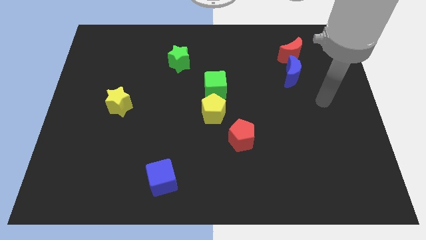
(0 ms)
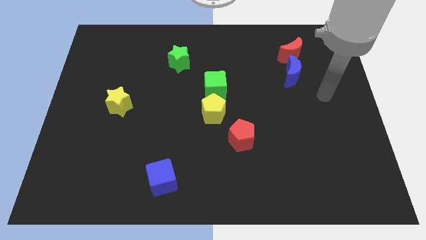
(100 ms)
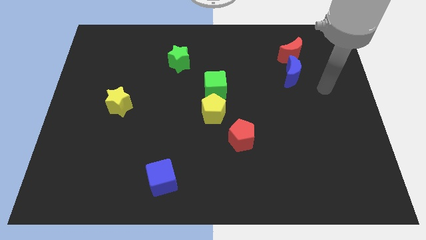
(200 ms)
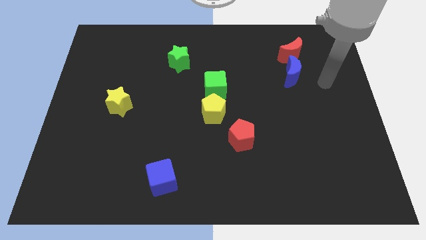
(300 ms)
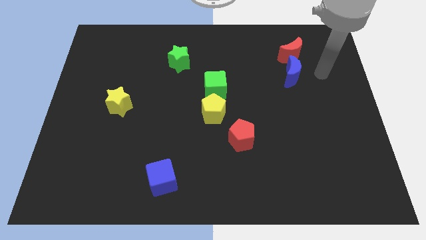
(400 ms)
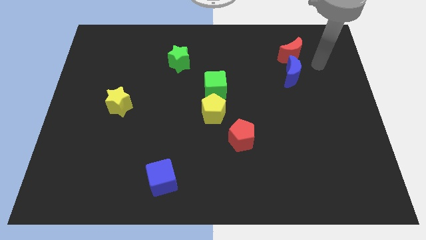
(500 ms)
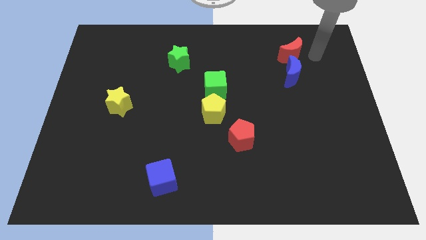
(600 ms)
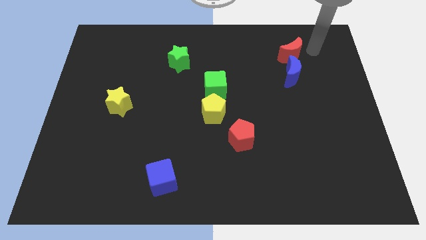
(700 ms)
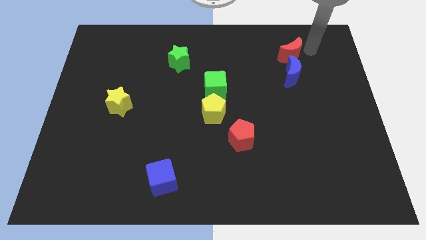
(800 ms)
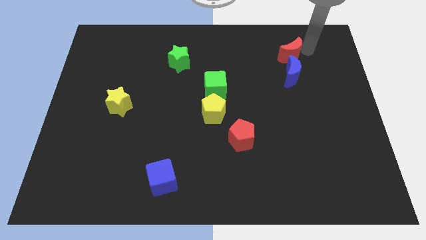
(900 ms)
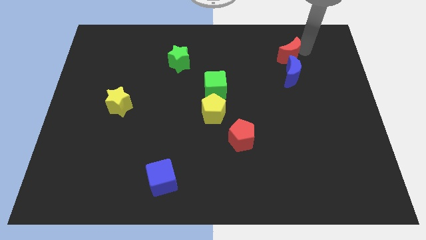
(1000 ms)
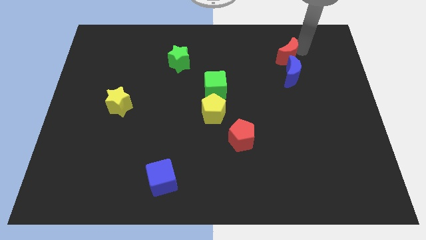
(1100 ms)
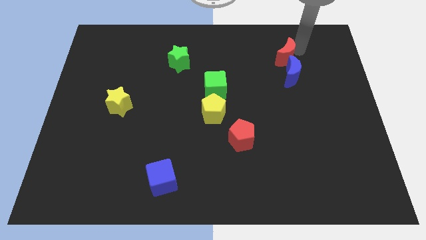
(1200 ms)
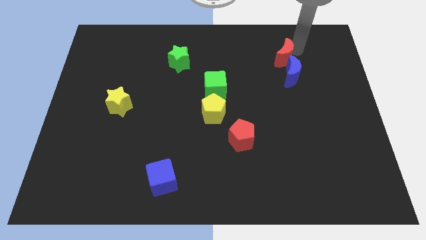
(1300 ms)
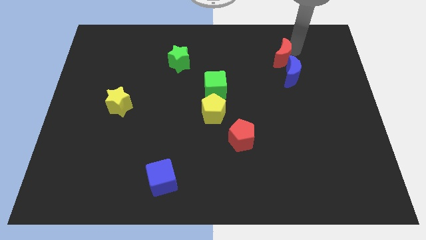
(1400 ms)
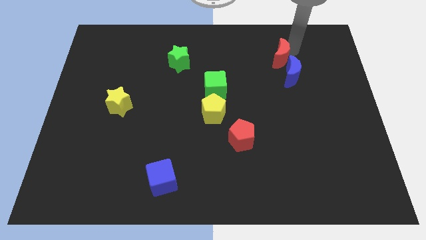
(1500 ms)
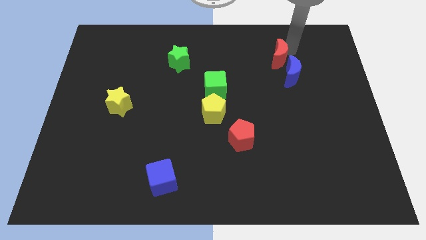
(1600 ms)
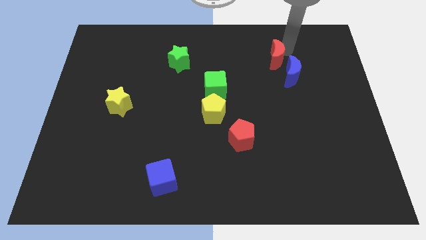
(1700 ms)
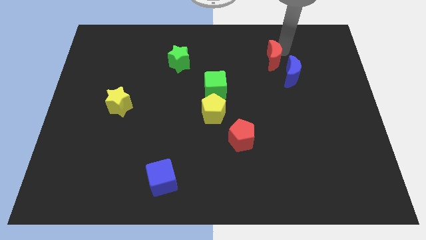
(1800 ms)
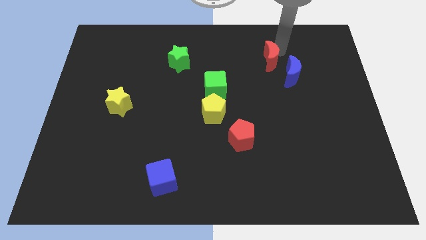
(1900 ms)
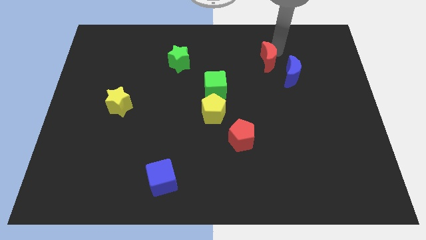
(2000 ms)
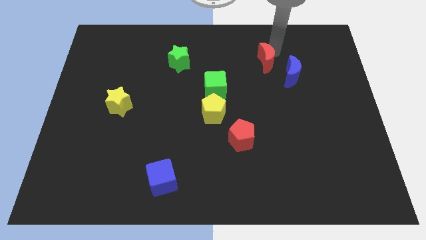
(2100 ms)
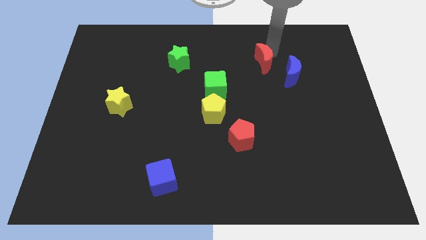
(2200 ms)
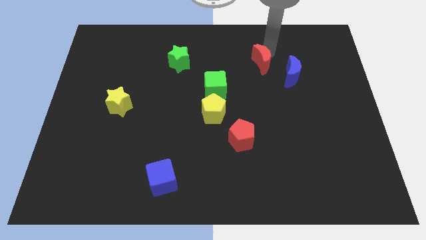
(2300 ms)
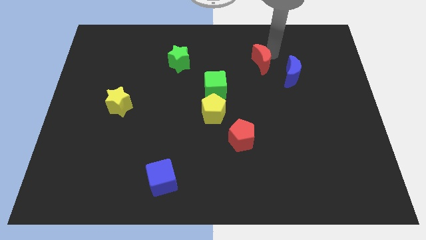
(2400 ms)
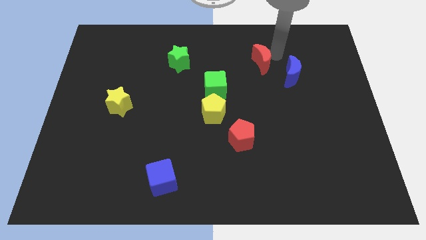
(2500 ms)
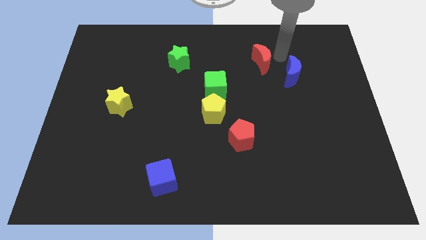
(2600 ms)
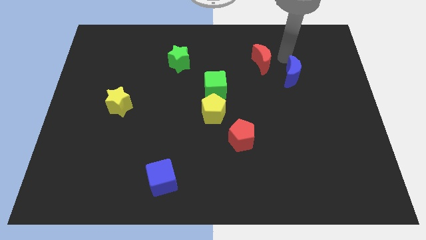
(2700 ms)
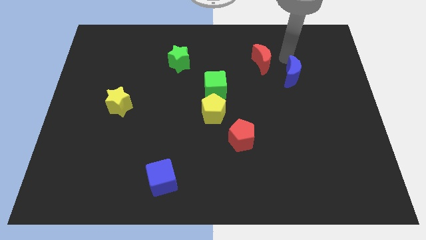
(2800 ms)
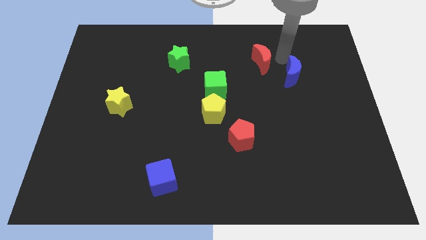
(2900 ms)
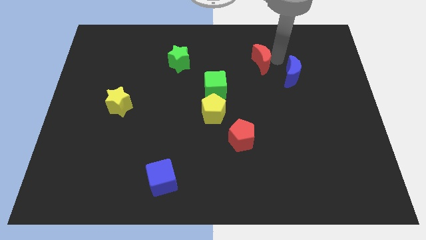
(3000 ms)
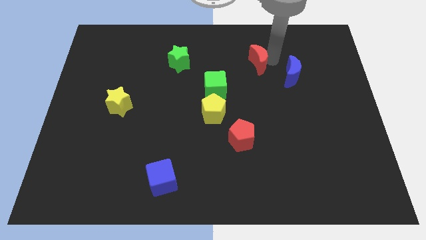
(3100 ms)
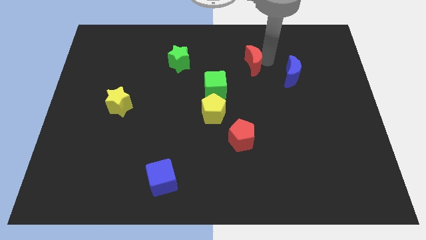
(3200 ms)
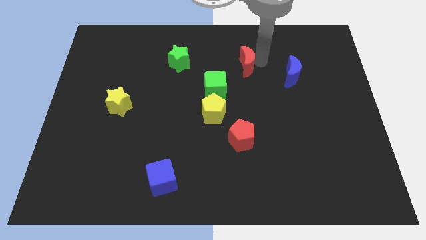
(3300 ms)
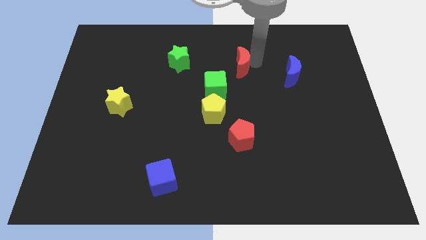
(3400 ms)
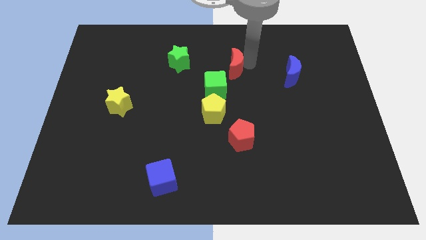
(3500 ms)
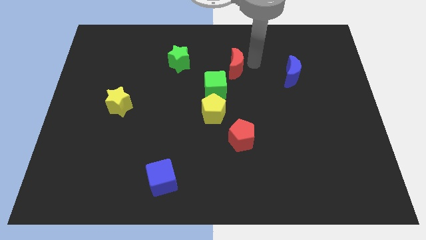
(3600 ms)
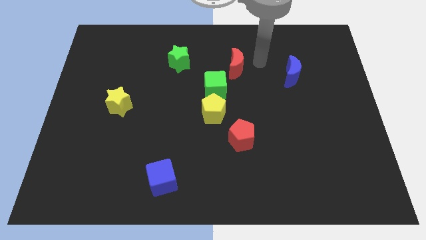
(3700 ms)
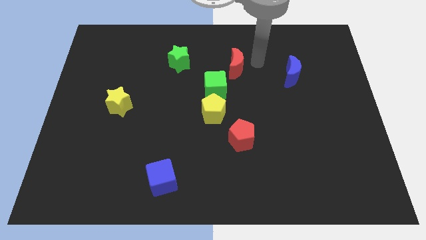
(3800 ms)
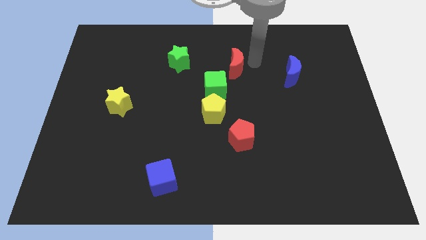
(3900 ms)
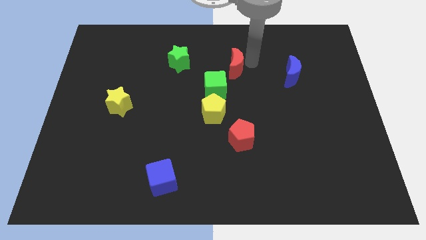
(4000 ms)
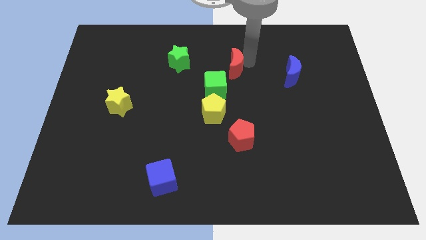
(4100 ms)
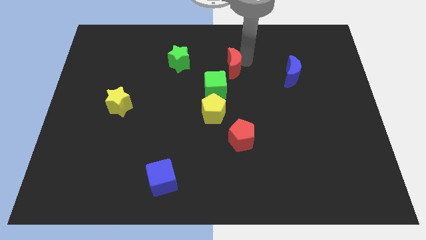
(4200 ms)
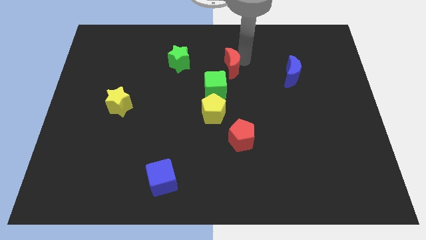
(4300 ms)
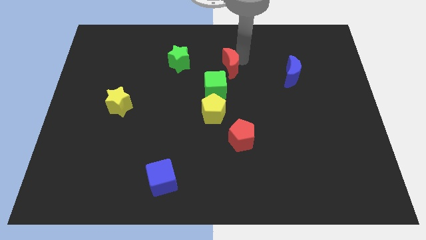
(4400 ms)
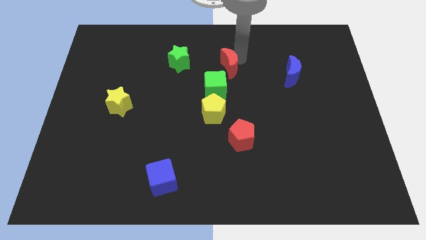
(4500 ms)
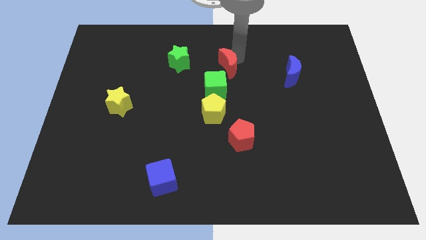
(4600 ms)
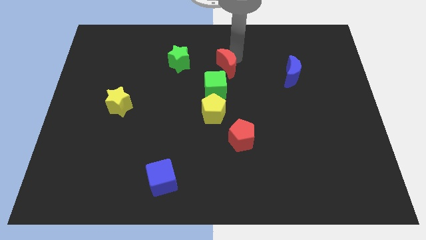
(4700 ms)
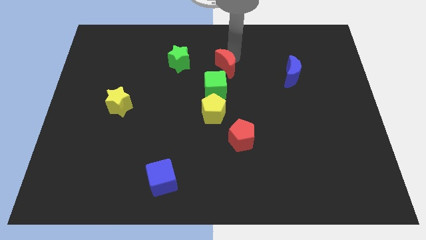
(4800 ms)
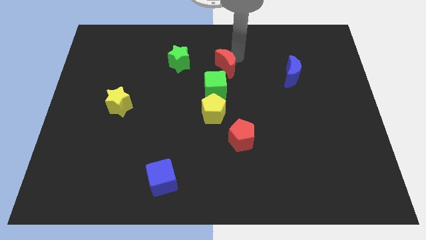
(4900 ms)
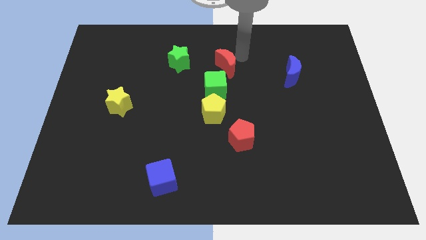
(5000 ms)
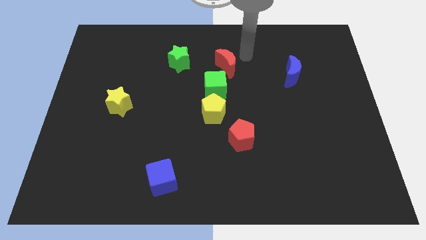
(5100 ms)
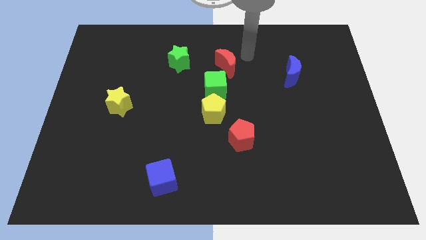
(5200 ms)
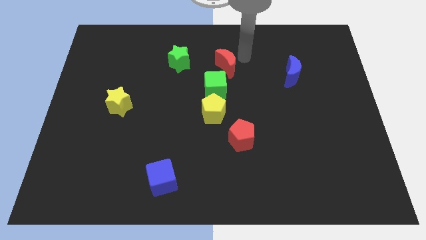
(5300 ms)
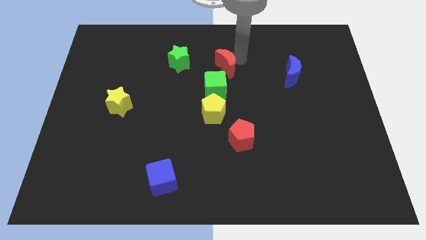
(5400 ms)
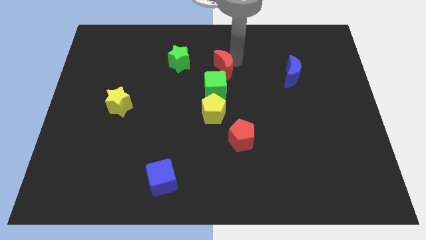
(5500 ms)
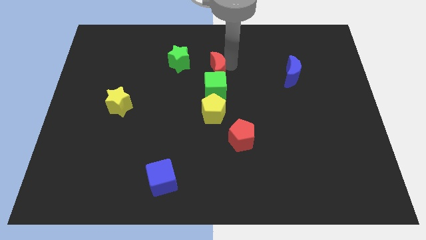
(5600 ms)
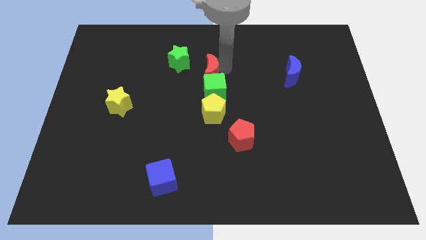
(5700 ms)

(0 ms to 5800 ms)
put the red moon to the top left side of the green cube

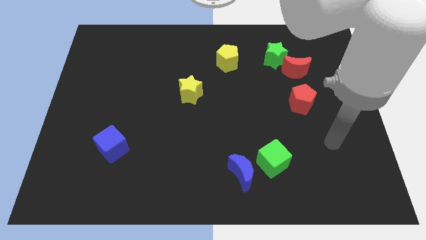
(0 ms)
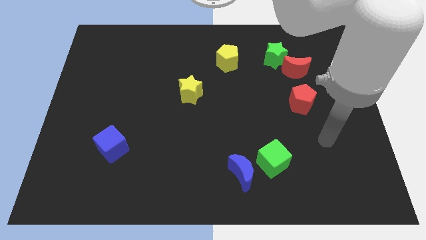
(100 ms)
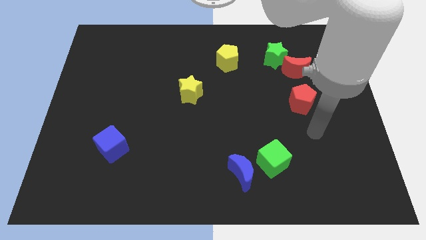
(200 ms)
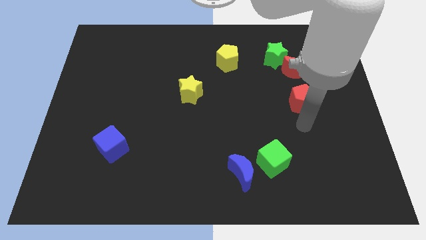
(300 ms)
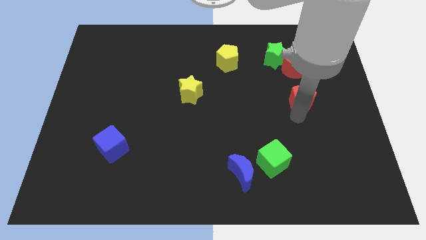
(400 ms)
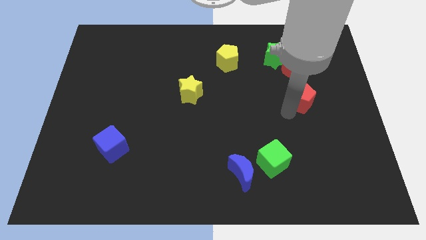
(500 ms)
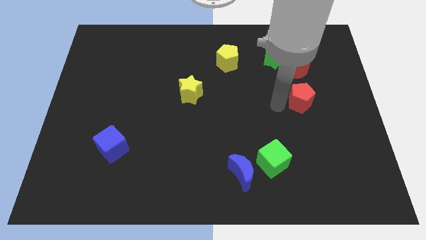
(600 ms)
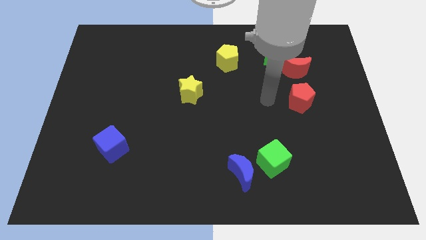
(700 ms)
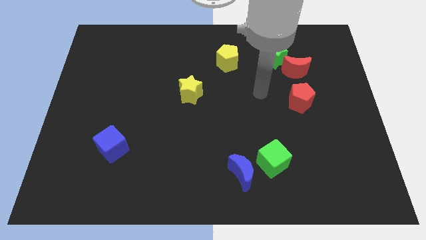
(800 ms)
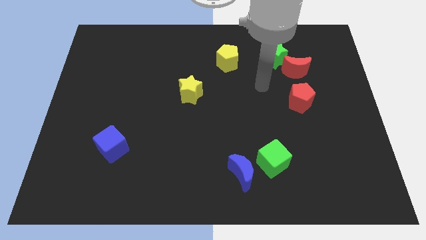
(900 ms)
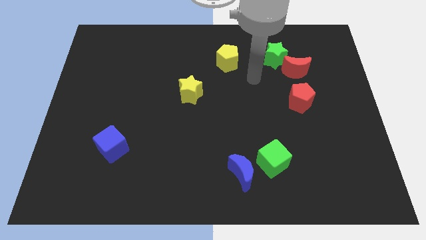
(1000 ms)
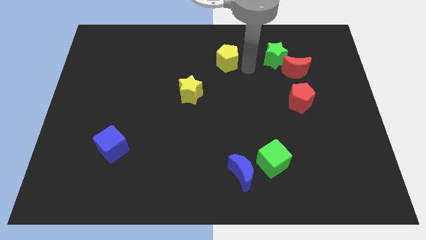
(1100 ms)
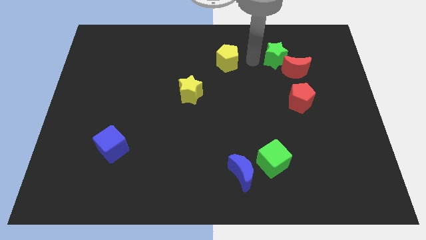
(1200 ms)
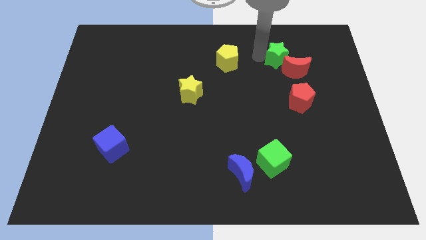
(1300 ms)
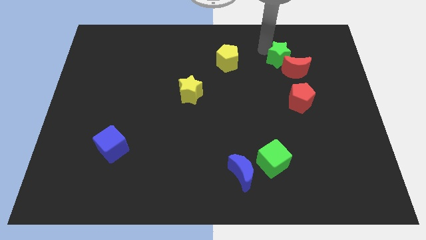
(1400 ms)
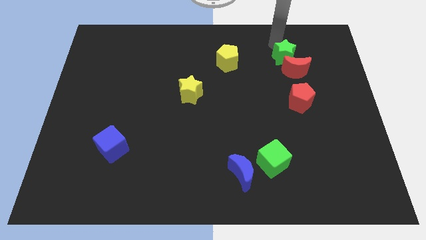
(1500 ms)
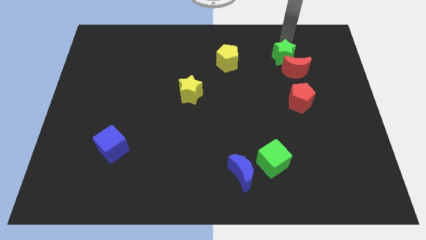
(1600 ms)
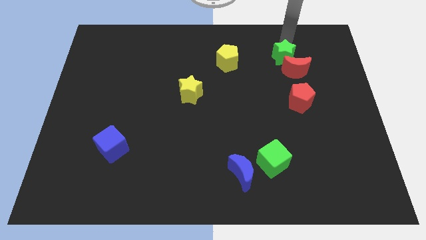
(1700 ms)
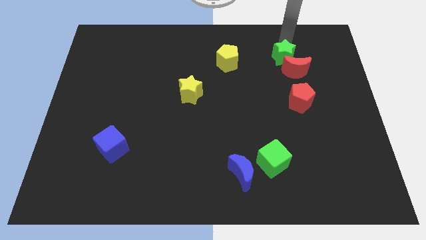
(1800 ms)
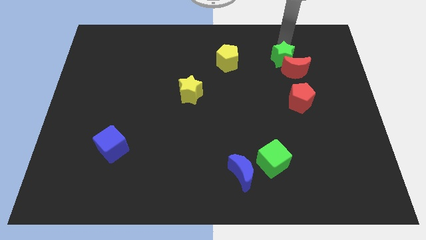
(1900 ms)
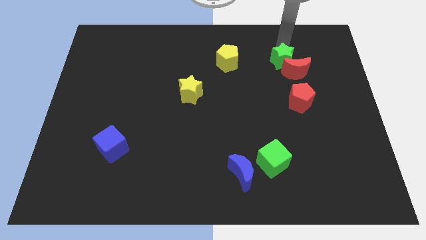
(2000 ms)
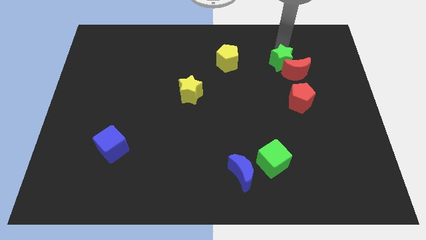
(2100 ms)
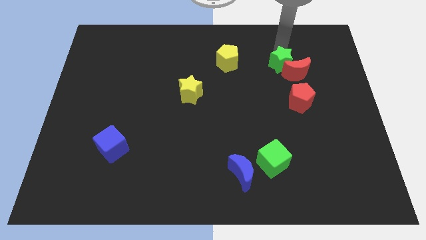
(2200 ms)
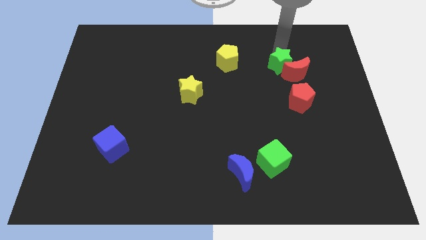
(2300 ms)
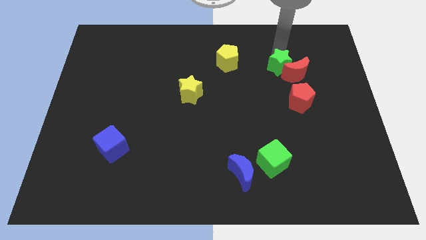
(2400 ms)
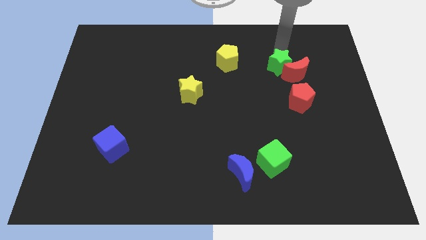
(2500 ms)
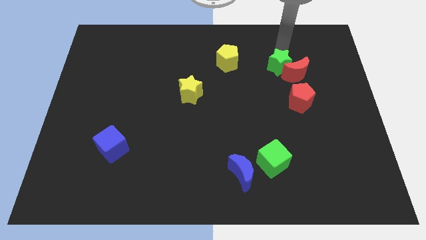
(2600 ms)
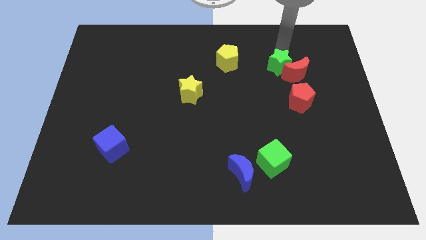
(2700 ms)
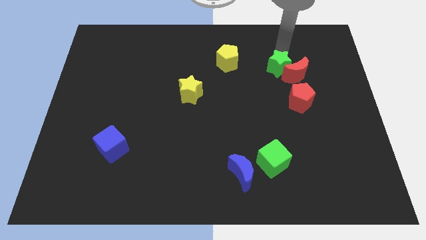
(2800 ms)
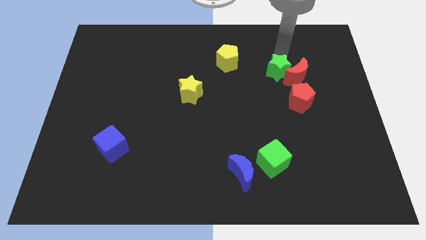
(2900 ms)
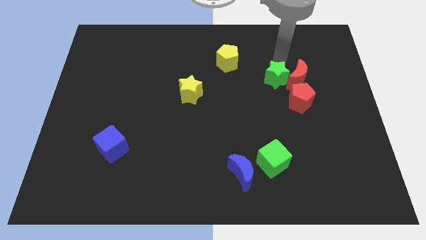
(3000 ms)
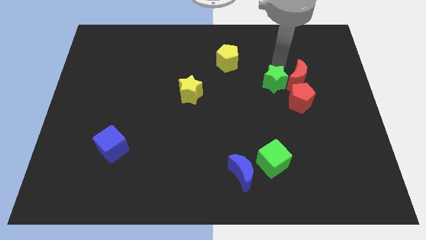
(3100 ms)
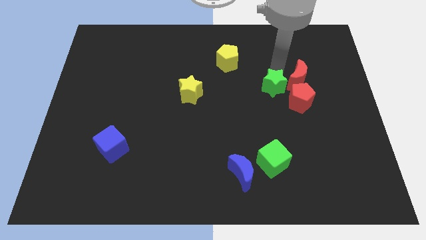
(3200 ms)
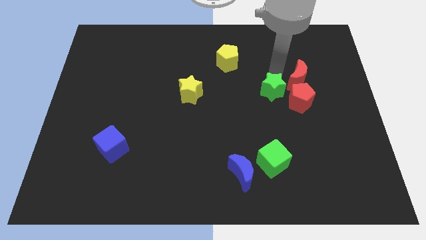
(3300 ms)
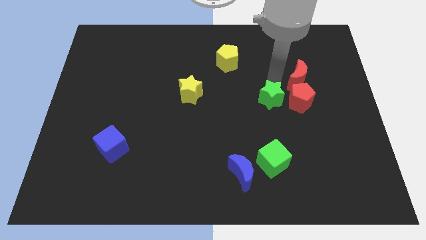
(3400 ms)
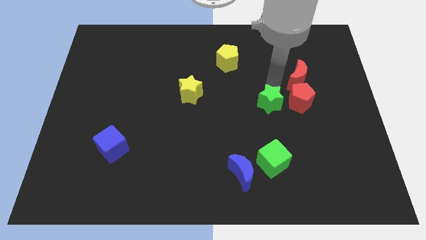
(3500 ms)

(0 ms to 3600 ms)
push the green star above the green cube
